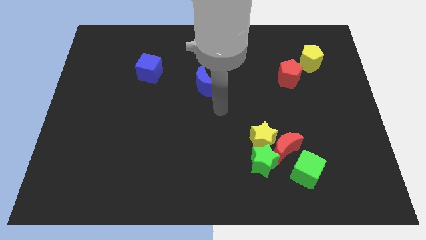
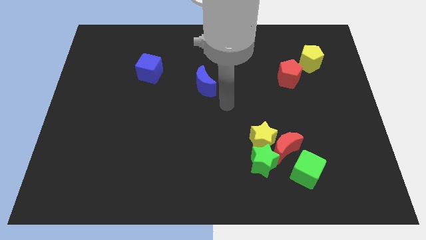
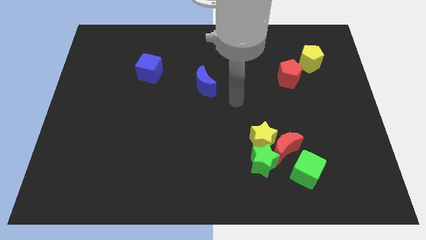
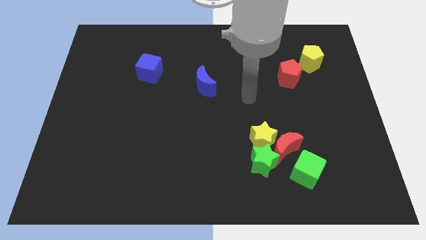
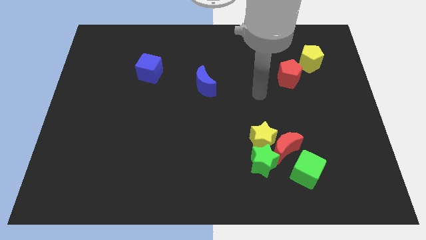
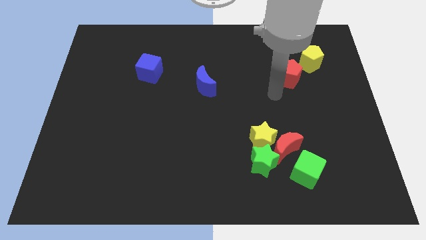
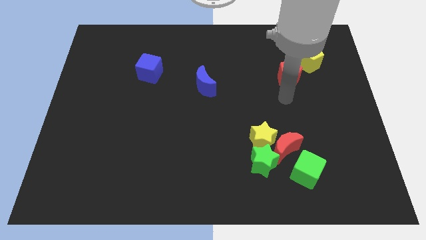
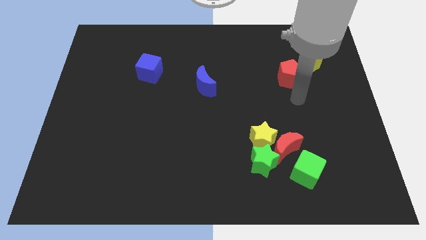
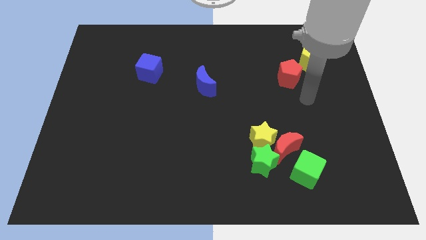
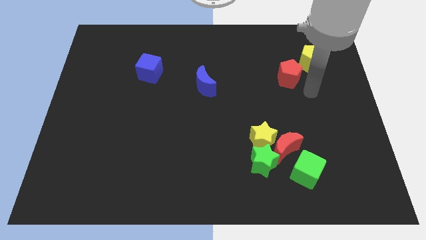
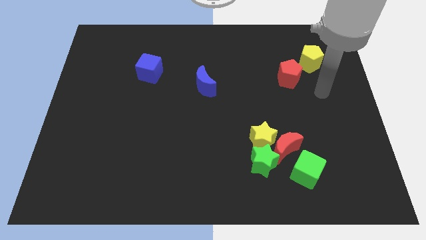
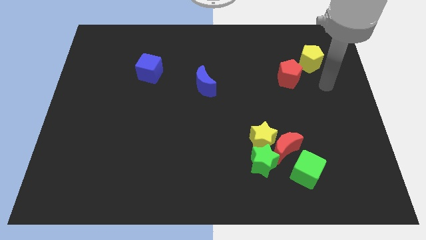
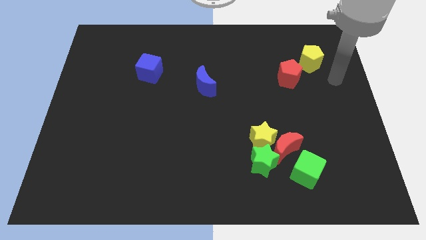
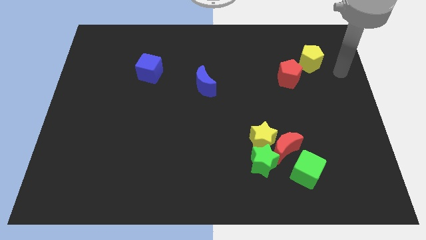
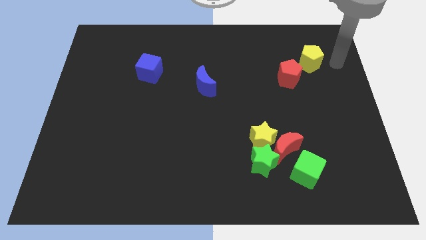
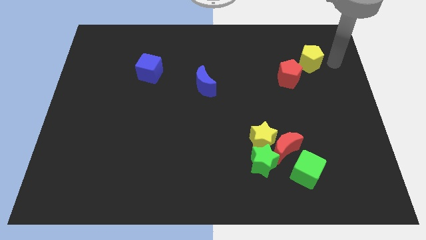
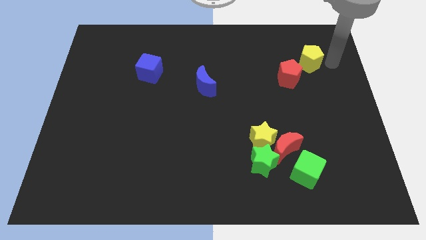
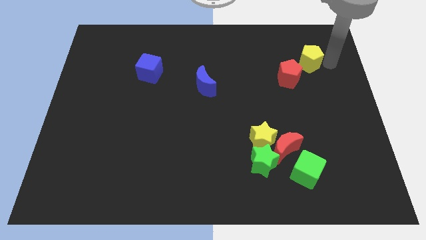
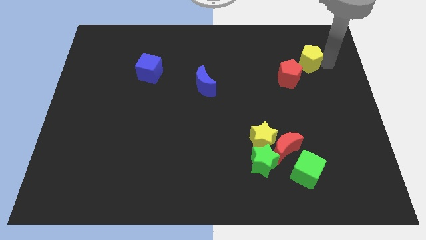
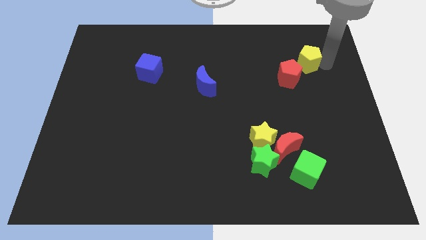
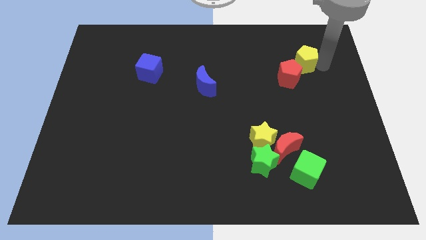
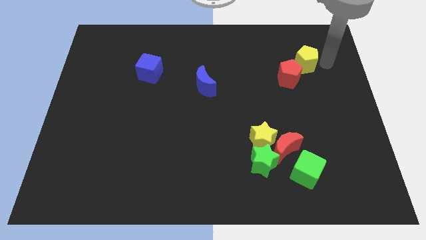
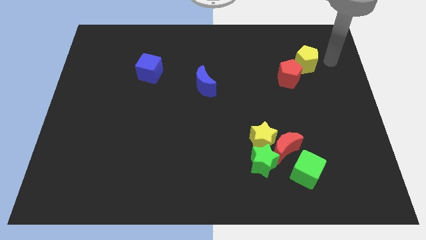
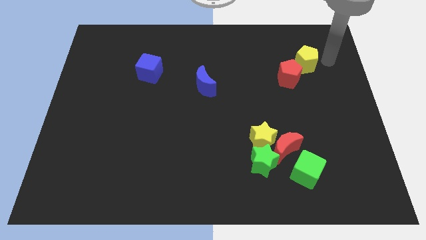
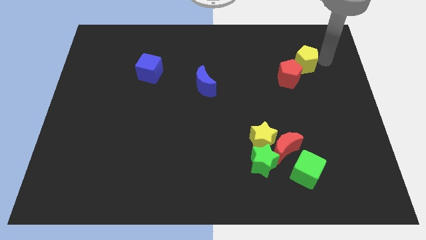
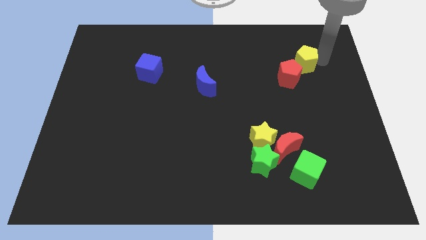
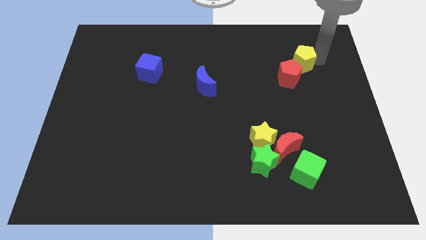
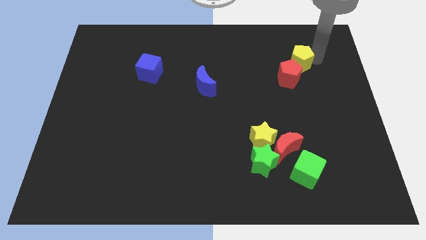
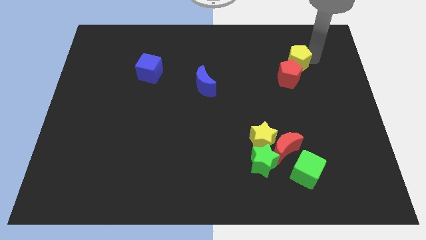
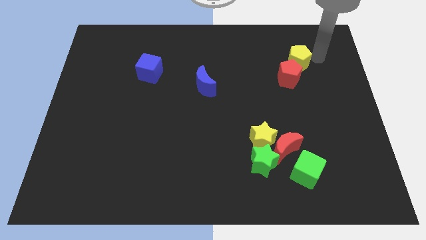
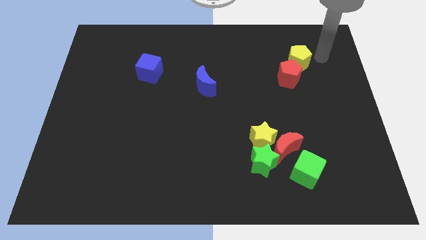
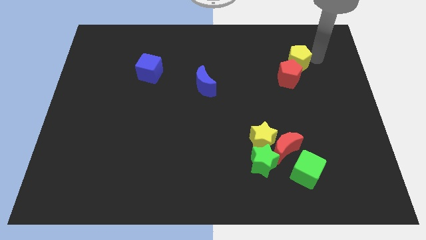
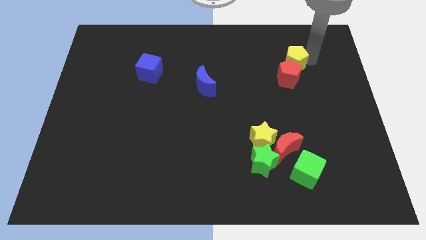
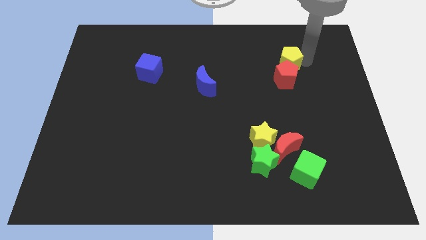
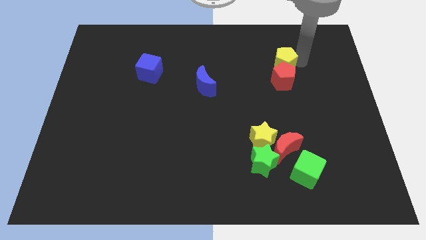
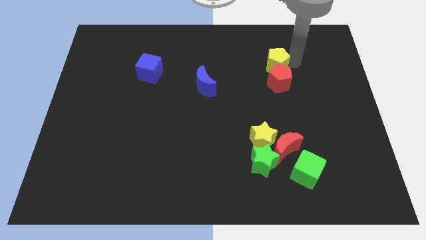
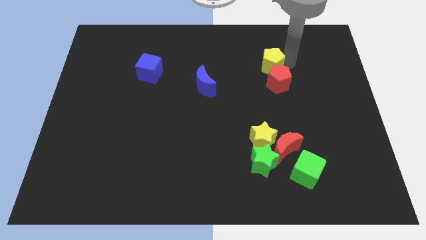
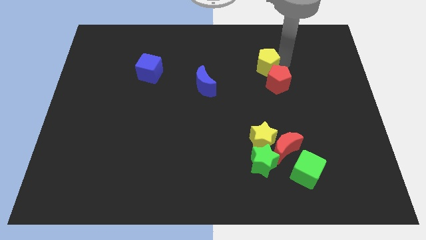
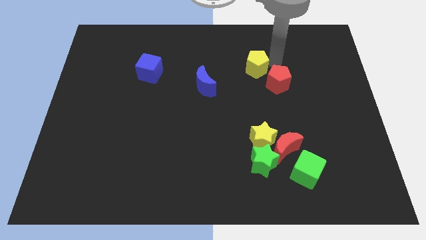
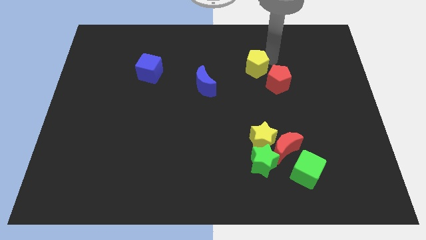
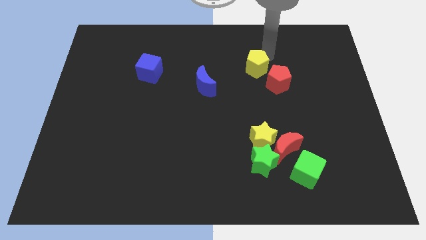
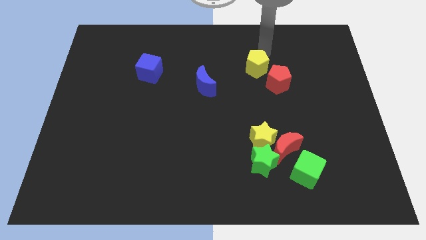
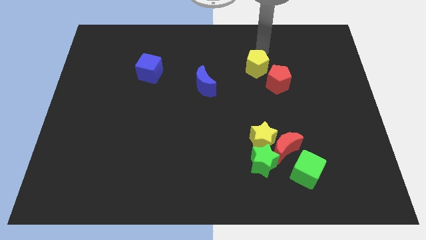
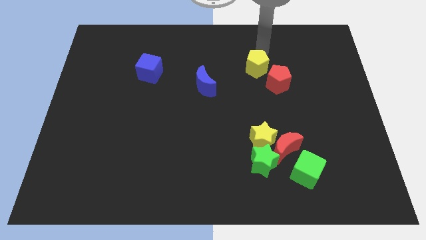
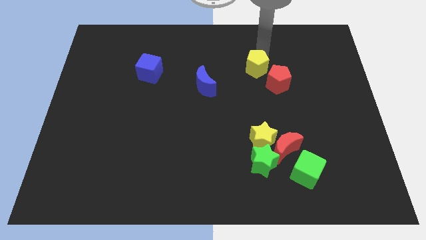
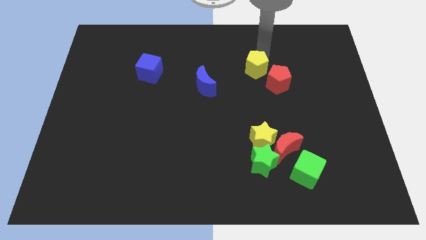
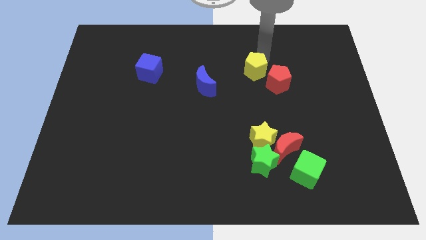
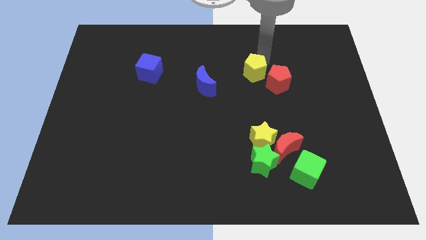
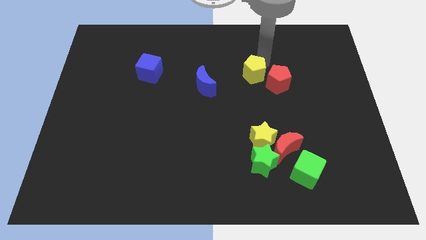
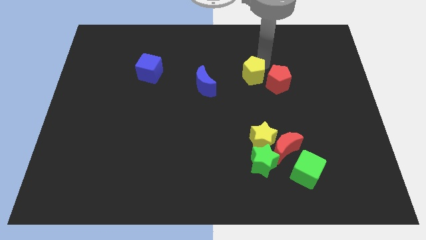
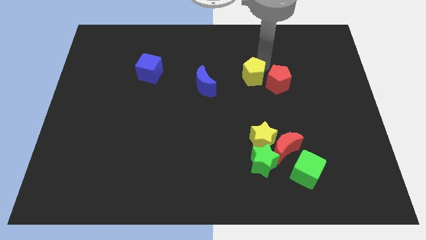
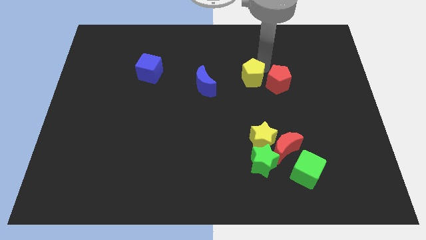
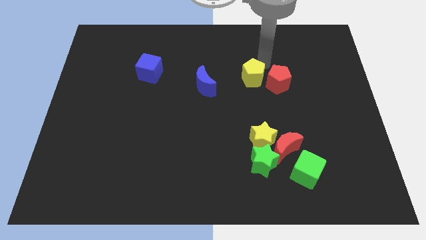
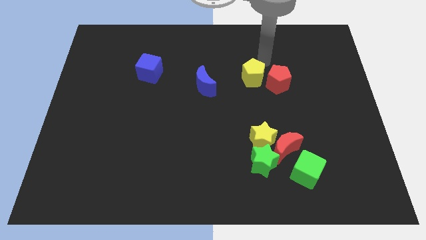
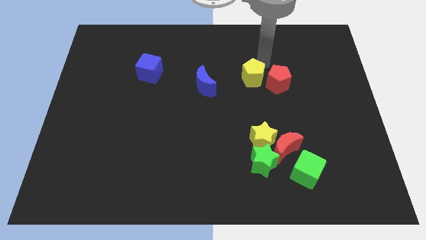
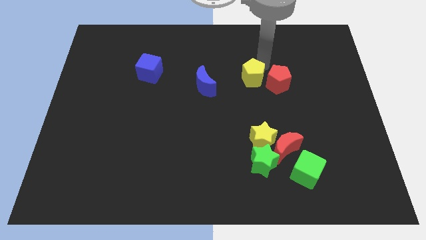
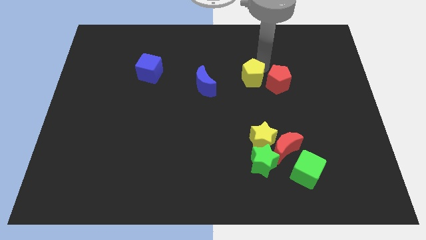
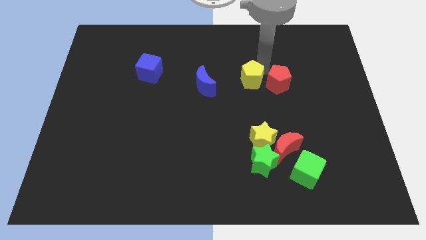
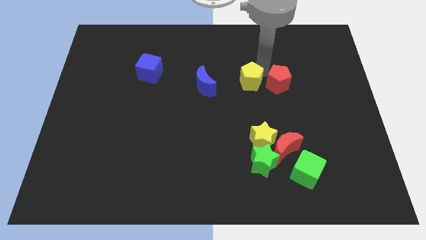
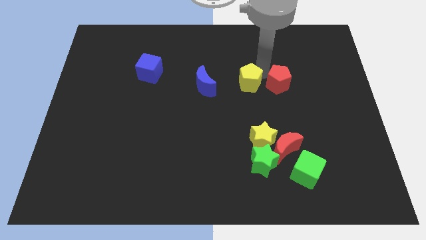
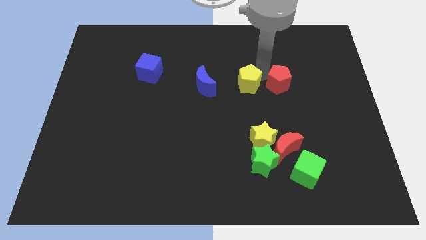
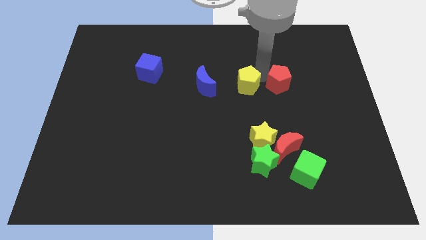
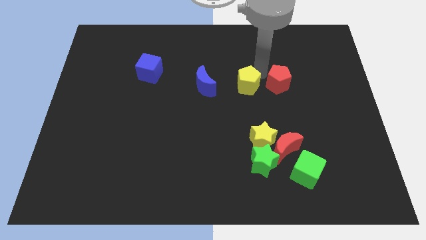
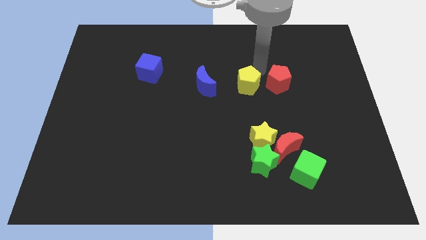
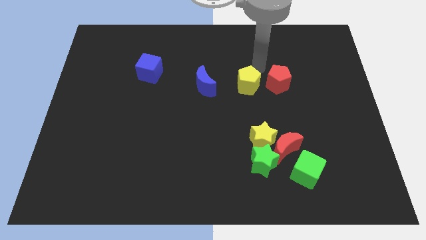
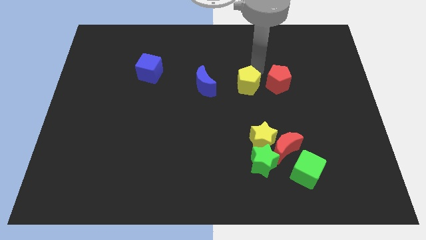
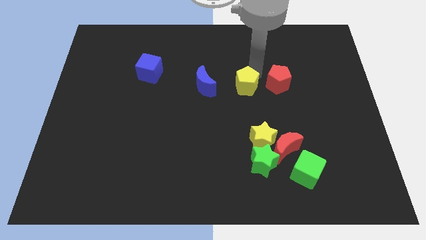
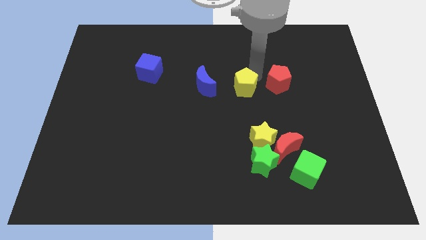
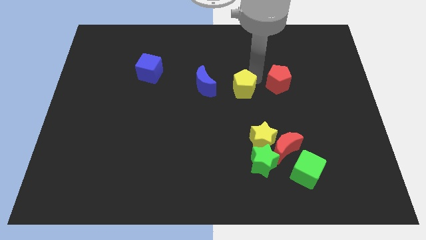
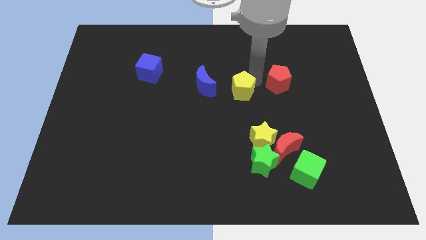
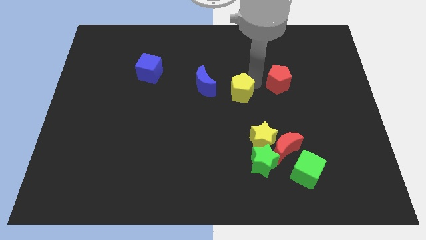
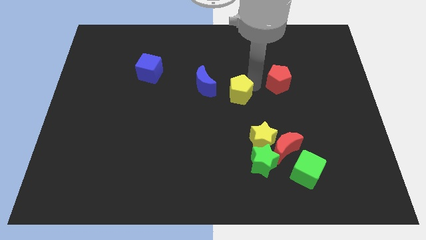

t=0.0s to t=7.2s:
move the yellow pentagon diagonally down and to the right of the blue moon

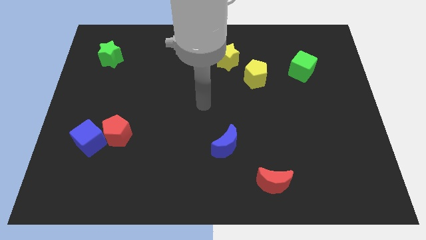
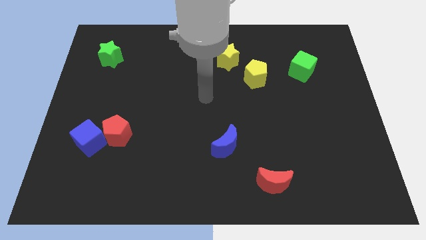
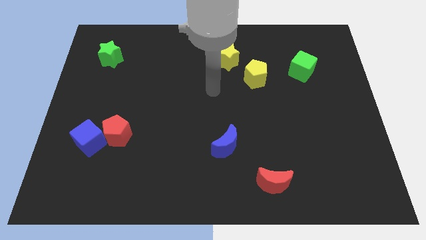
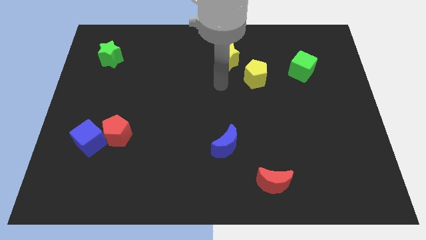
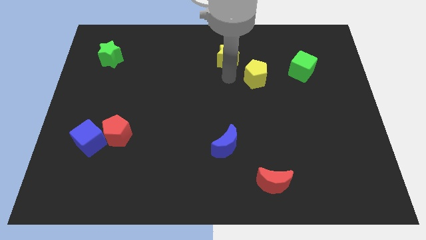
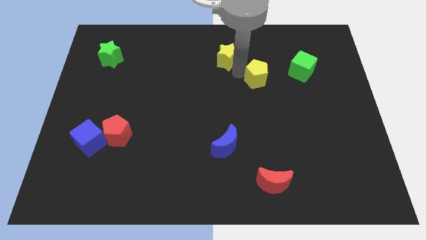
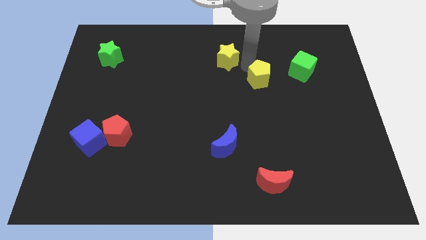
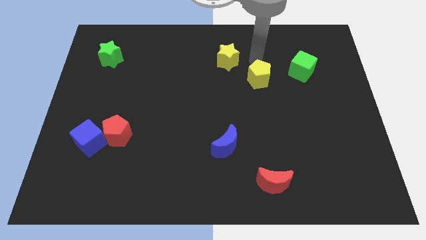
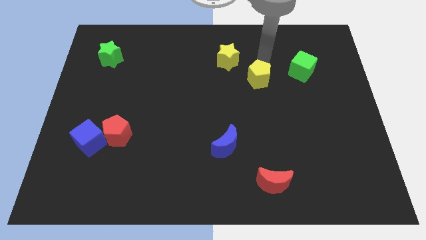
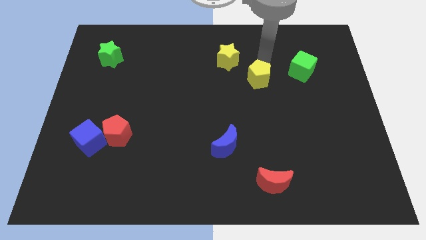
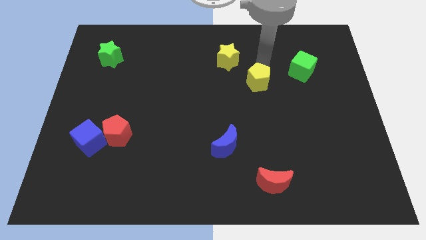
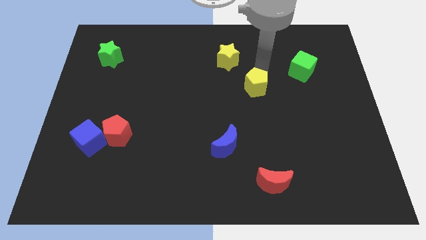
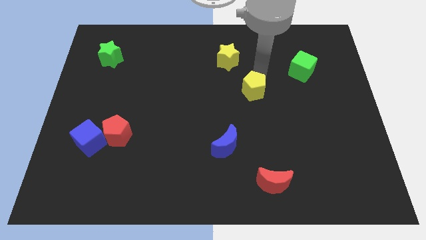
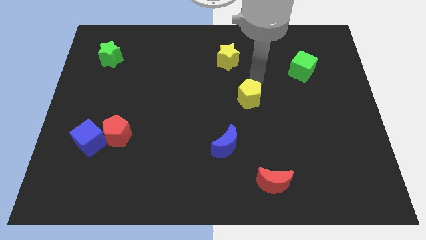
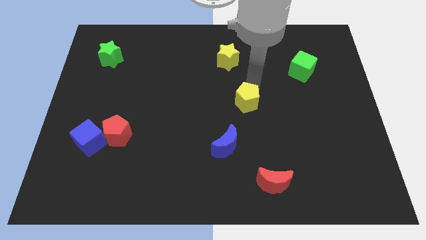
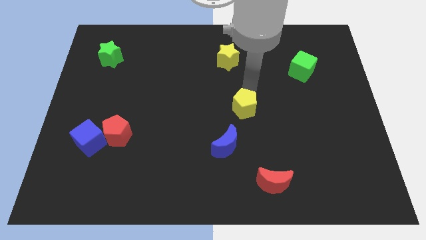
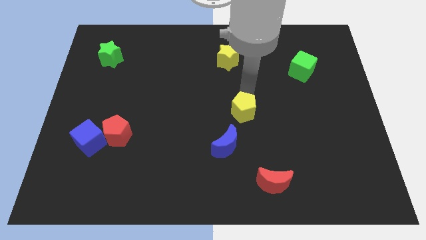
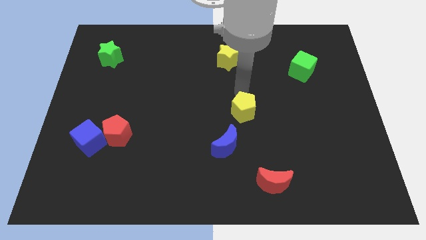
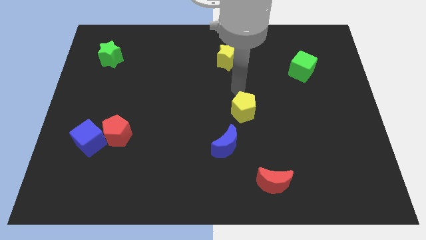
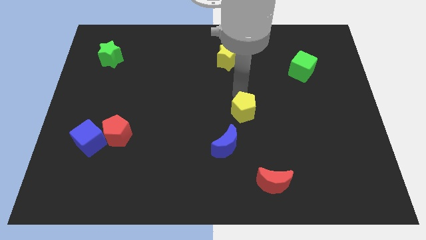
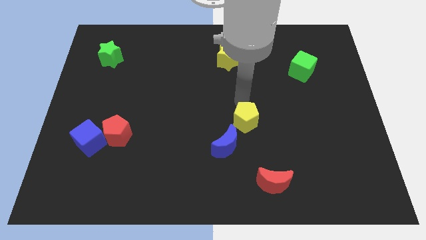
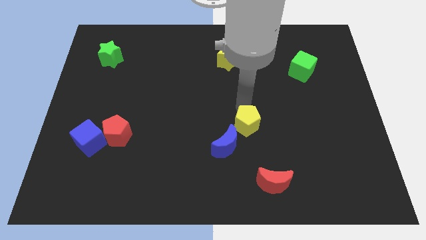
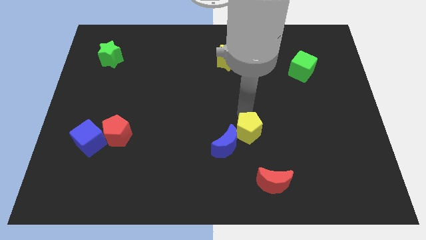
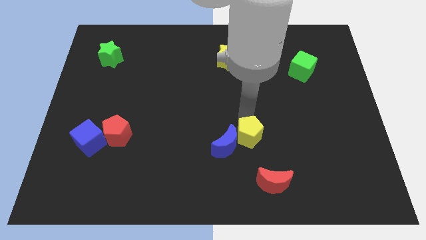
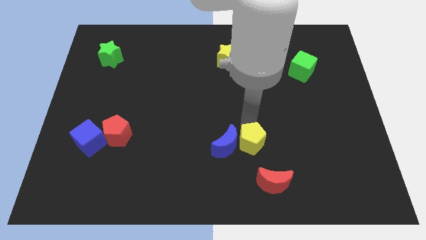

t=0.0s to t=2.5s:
move the yellow pentagon to the top left of the red moon
